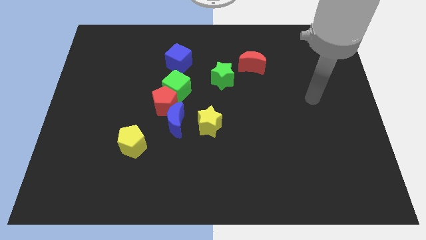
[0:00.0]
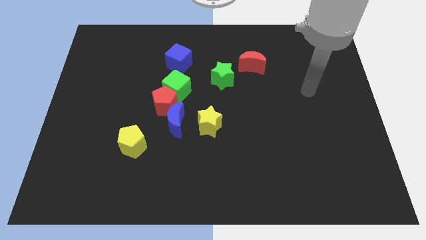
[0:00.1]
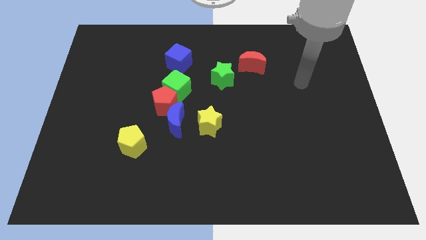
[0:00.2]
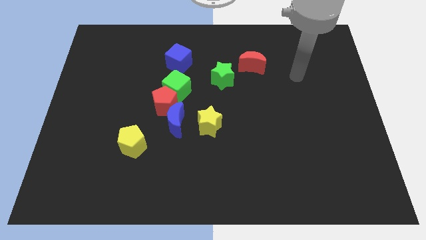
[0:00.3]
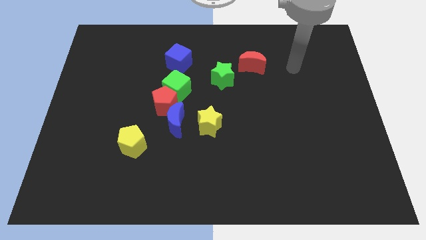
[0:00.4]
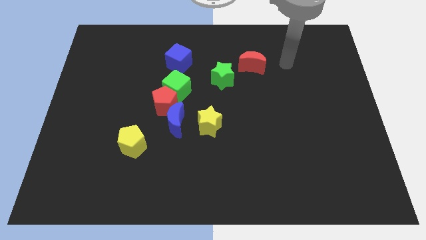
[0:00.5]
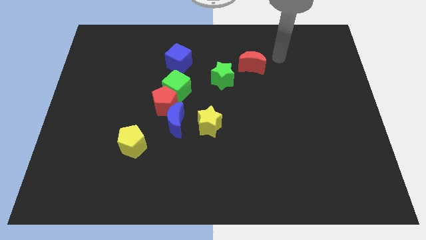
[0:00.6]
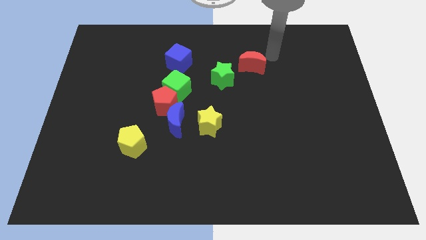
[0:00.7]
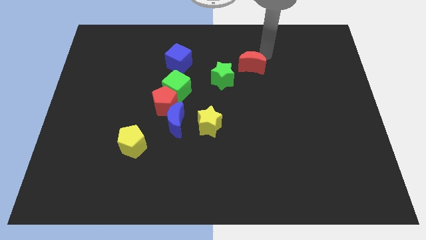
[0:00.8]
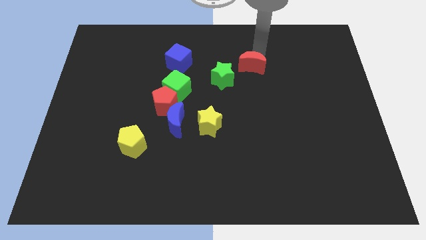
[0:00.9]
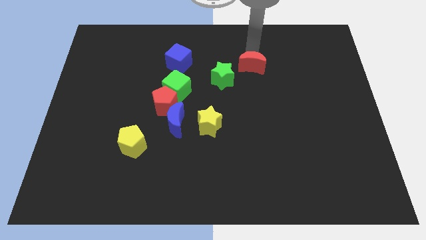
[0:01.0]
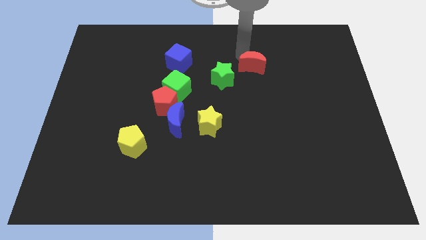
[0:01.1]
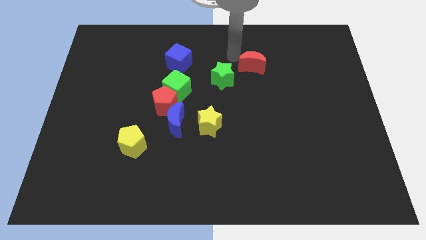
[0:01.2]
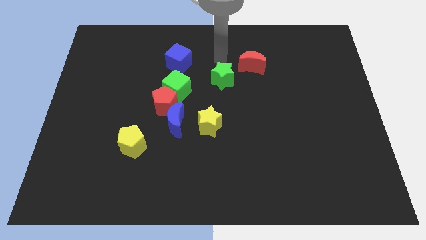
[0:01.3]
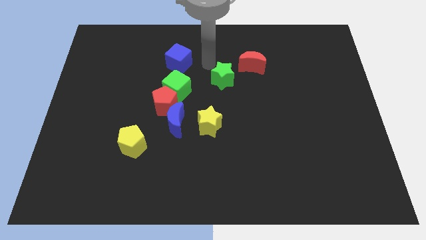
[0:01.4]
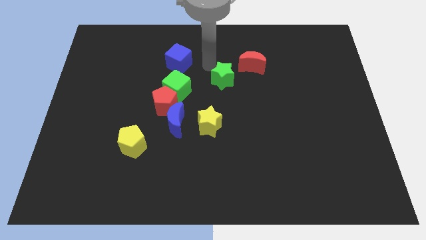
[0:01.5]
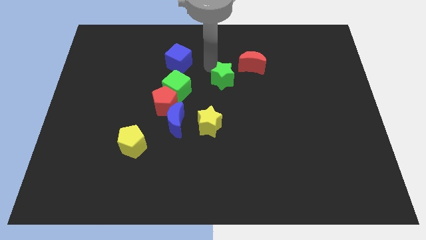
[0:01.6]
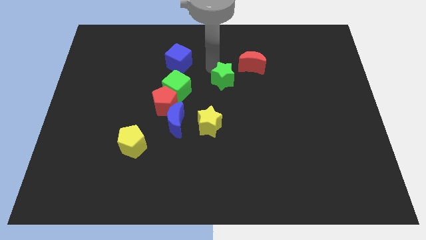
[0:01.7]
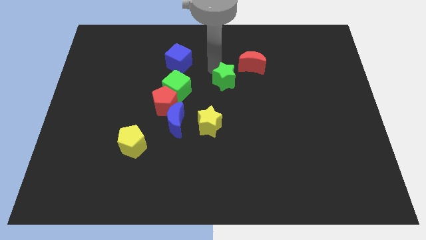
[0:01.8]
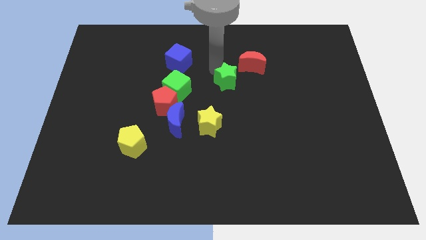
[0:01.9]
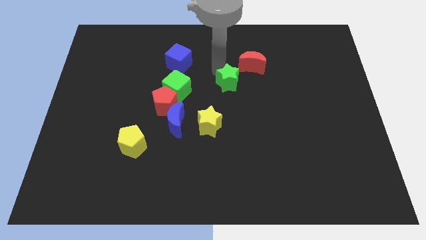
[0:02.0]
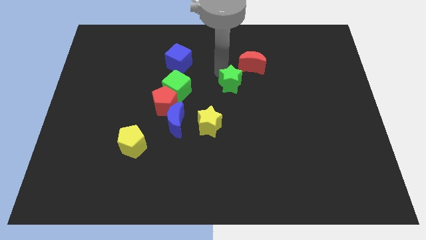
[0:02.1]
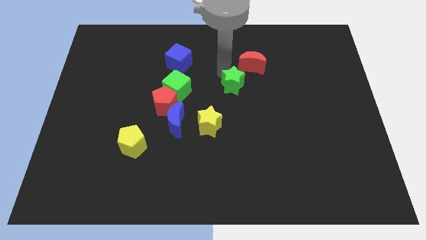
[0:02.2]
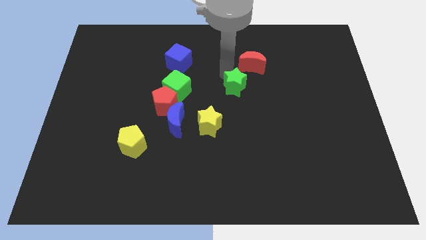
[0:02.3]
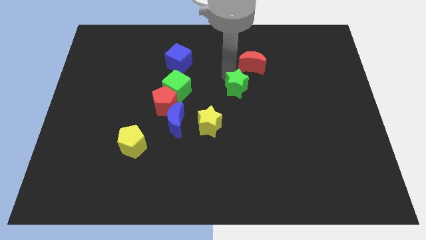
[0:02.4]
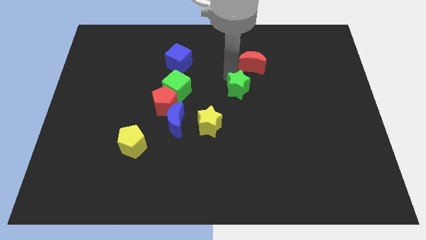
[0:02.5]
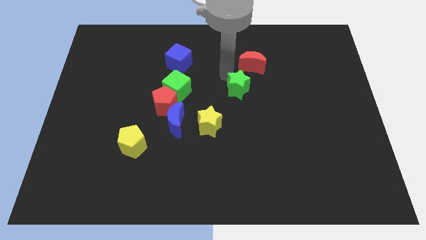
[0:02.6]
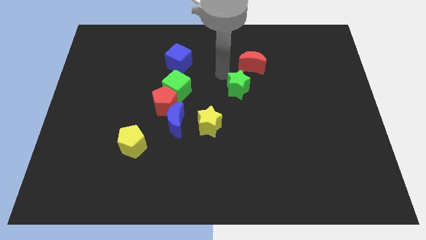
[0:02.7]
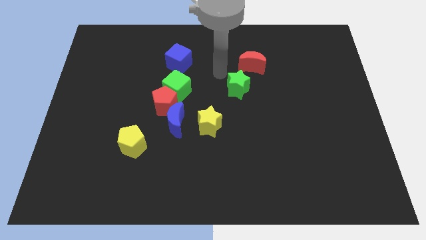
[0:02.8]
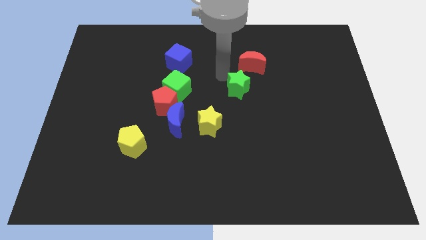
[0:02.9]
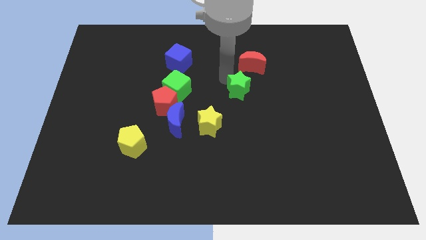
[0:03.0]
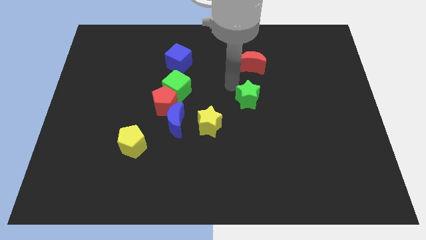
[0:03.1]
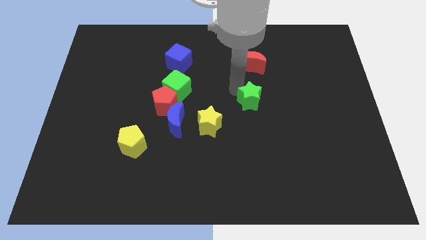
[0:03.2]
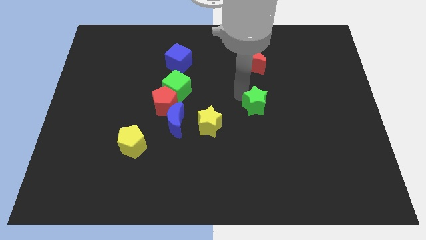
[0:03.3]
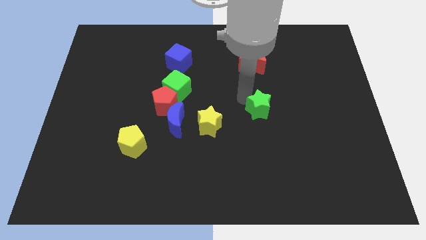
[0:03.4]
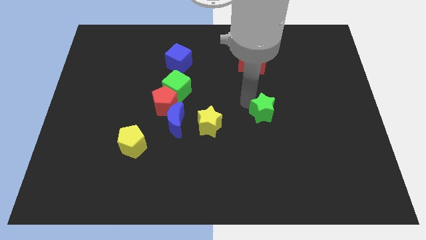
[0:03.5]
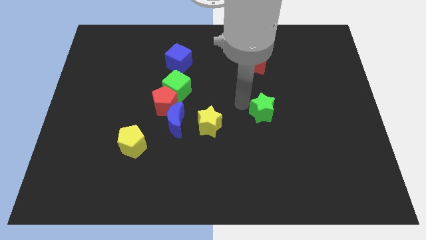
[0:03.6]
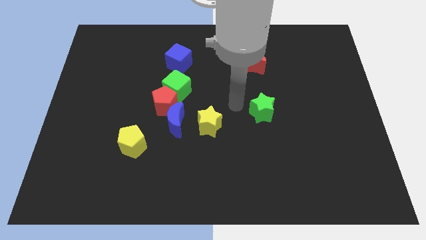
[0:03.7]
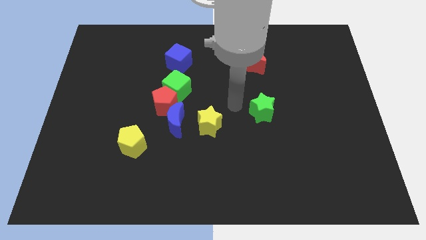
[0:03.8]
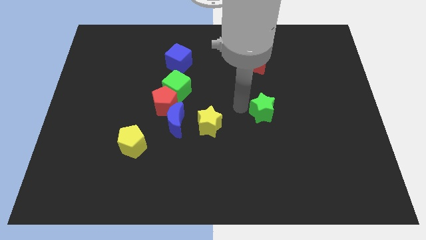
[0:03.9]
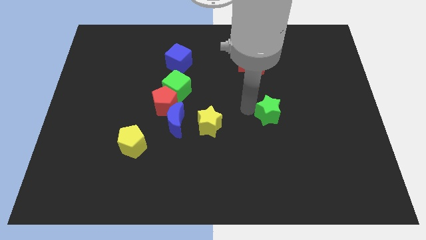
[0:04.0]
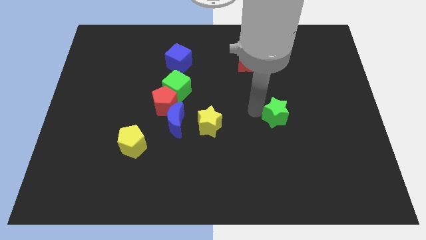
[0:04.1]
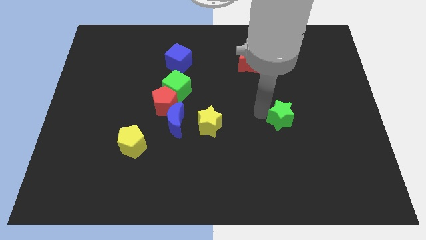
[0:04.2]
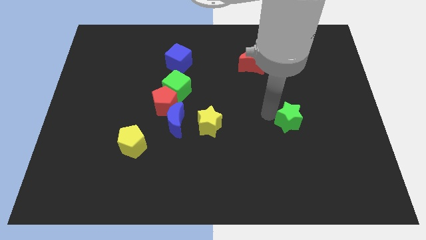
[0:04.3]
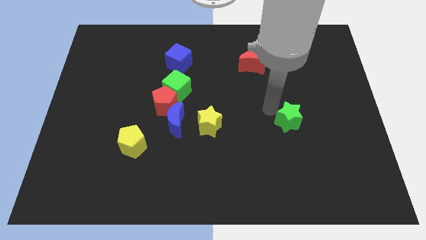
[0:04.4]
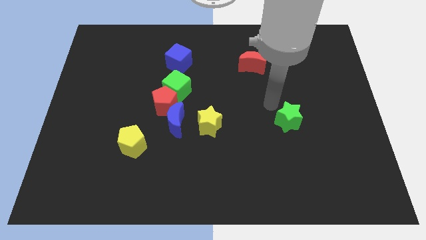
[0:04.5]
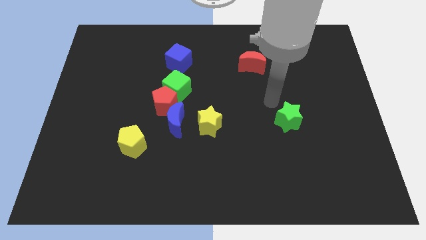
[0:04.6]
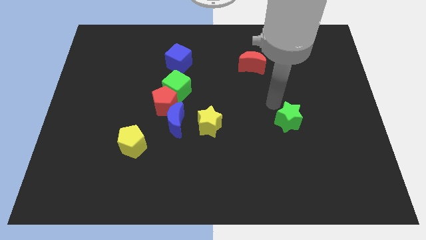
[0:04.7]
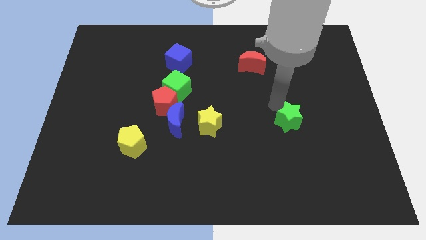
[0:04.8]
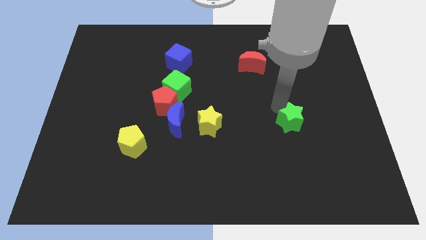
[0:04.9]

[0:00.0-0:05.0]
move the green star down and then right

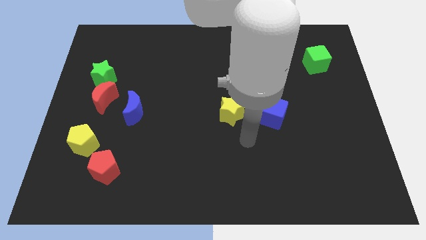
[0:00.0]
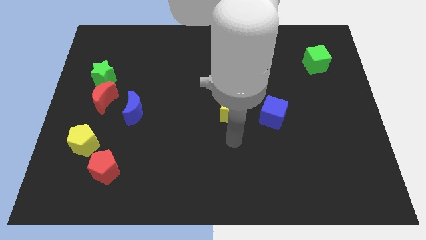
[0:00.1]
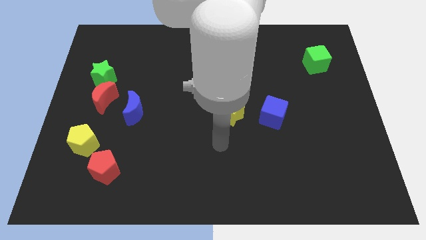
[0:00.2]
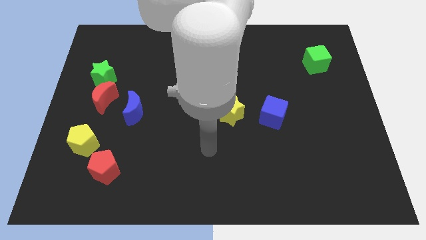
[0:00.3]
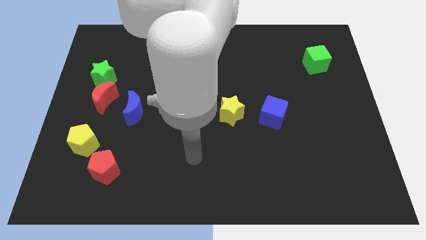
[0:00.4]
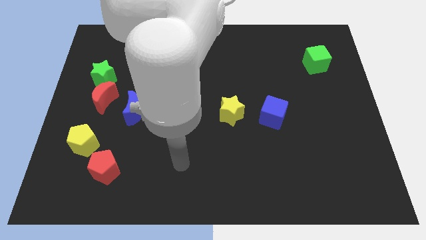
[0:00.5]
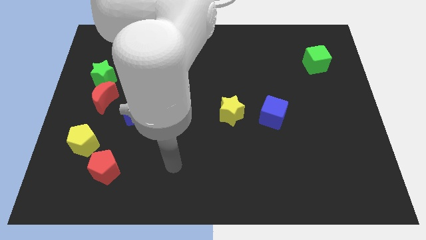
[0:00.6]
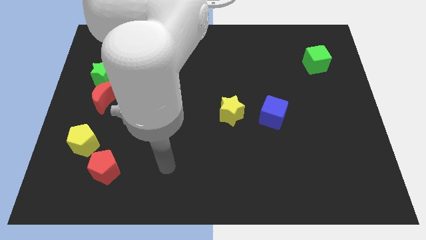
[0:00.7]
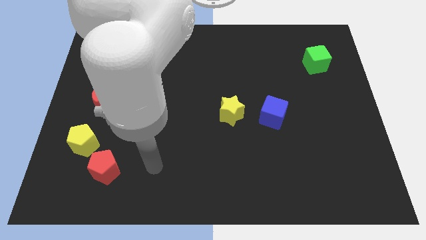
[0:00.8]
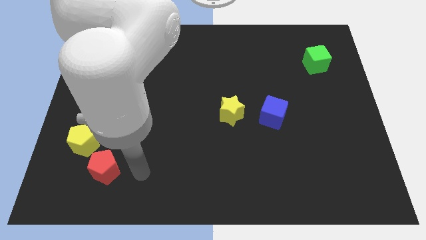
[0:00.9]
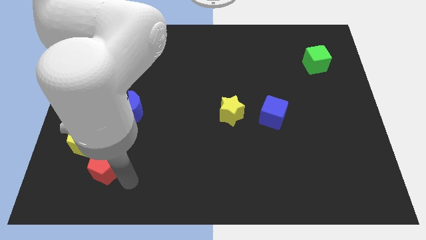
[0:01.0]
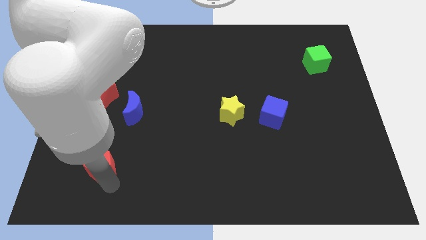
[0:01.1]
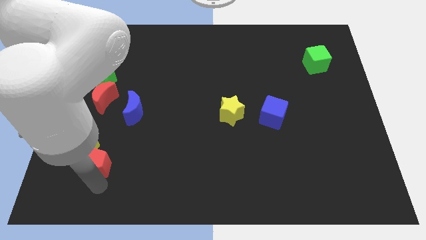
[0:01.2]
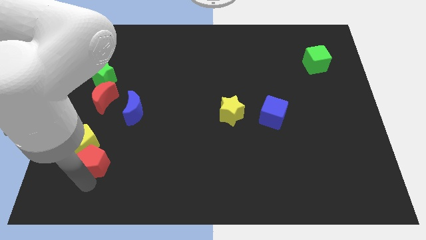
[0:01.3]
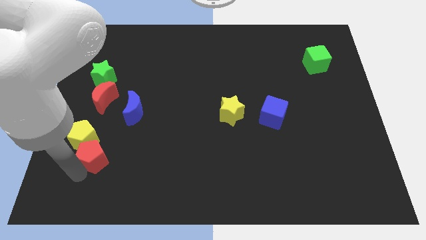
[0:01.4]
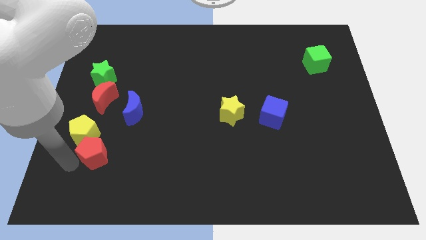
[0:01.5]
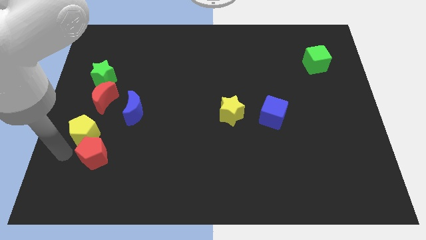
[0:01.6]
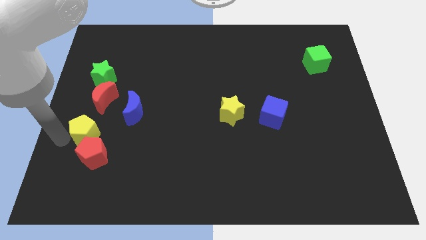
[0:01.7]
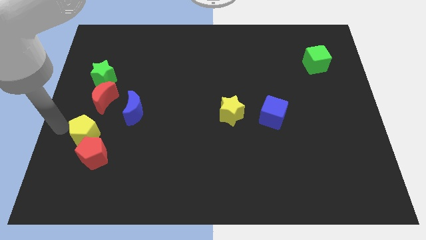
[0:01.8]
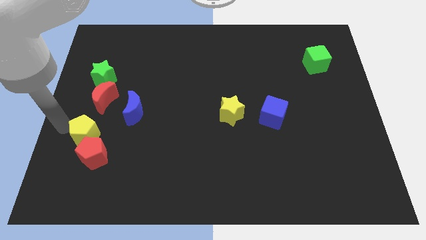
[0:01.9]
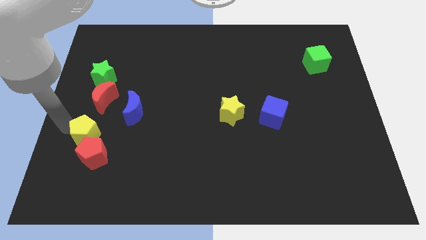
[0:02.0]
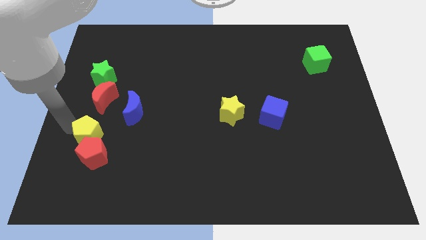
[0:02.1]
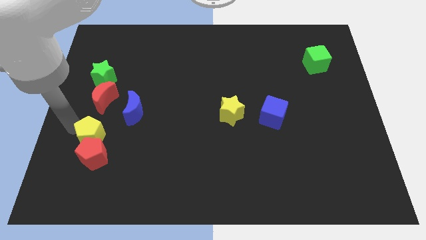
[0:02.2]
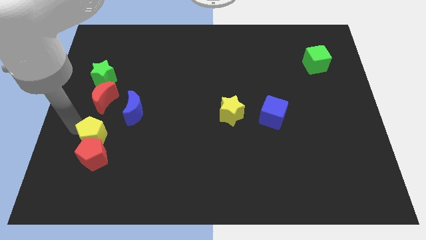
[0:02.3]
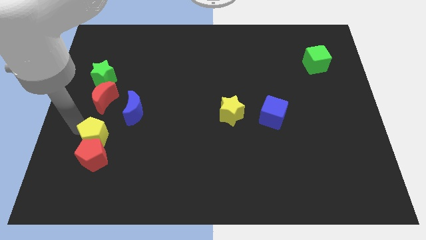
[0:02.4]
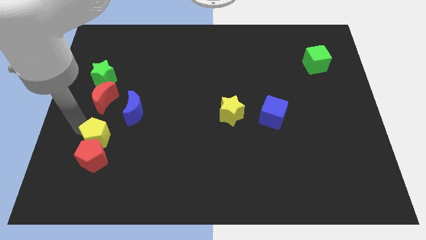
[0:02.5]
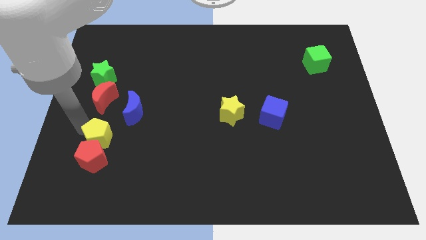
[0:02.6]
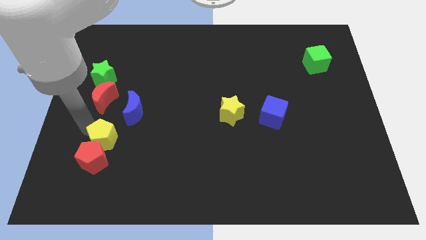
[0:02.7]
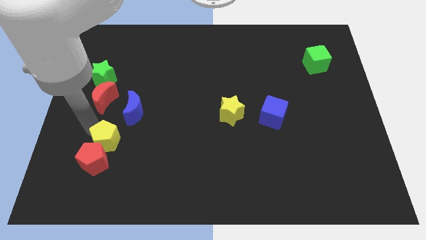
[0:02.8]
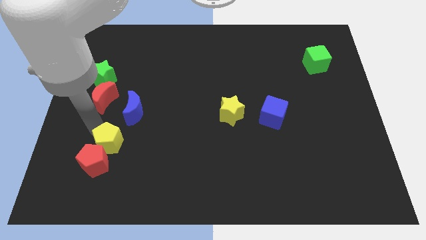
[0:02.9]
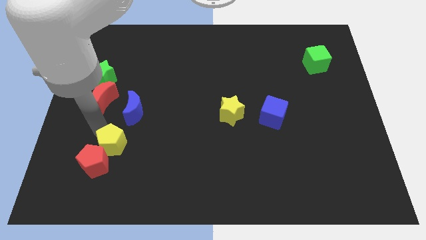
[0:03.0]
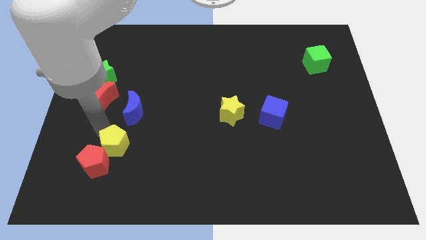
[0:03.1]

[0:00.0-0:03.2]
slightly slide the yellow pentagon to the right

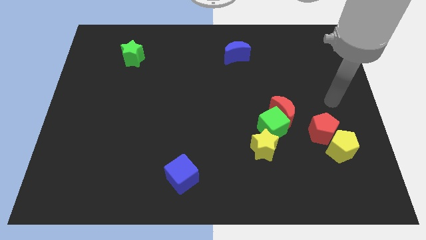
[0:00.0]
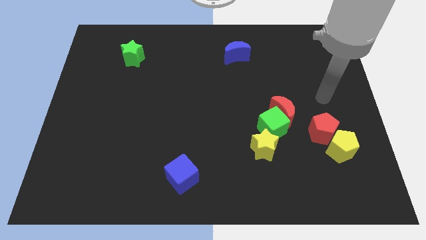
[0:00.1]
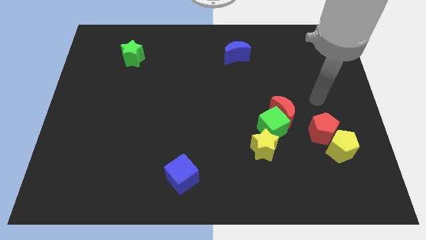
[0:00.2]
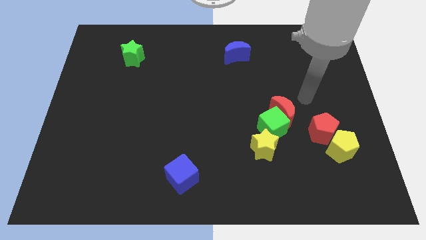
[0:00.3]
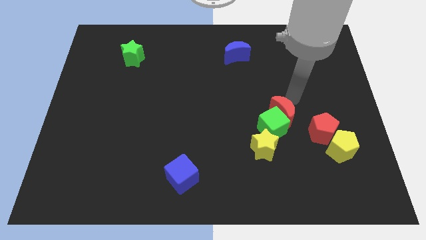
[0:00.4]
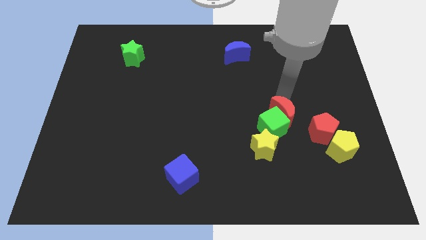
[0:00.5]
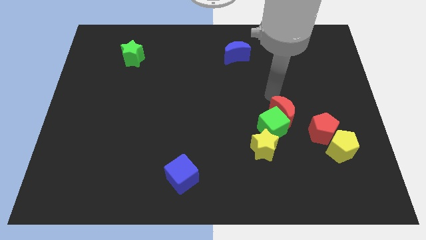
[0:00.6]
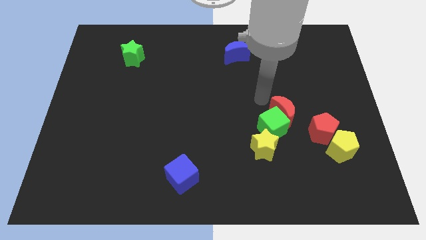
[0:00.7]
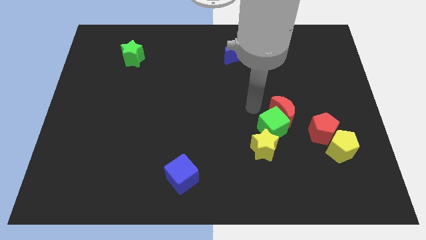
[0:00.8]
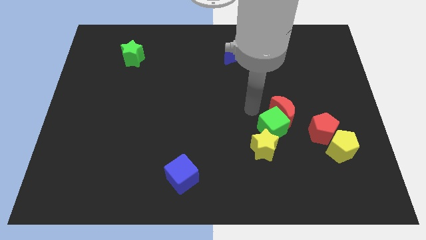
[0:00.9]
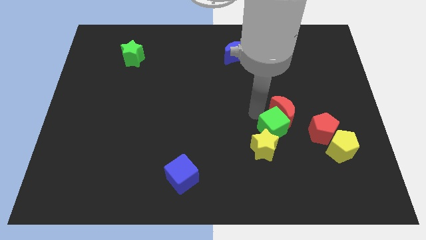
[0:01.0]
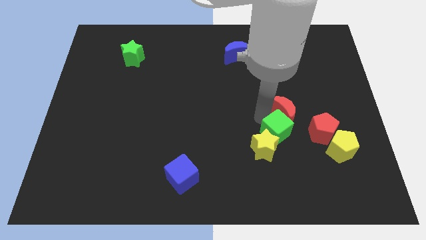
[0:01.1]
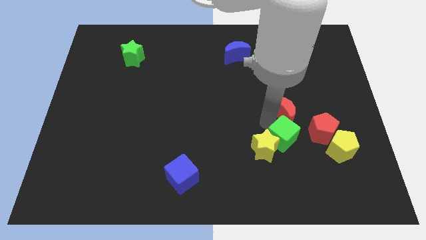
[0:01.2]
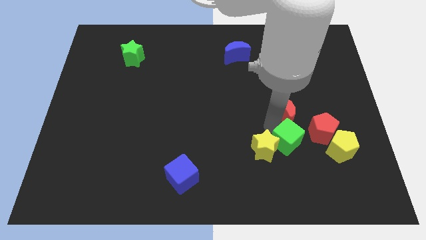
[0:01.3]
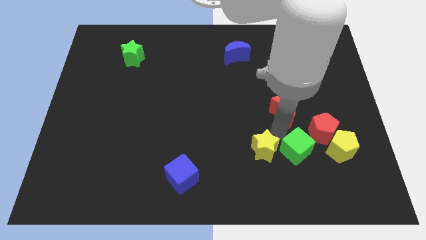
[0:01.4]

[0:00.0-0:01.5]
move the green cube down and to the right a bit
